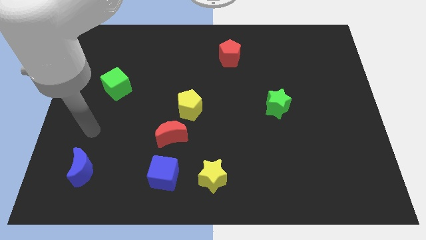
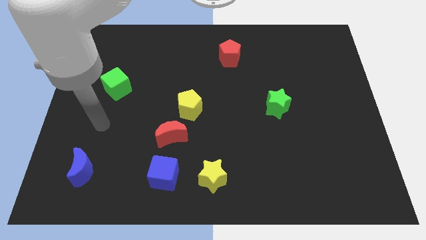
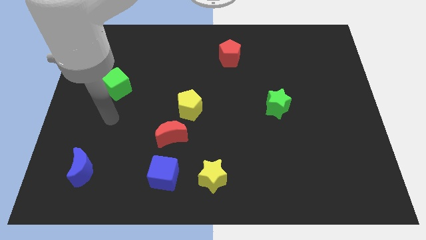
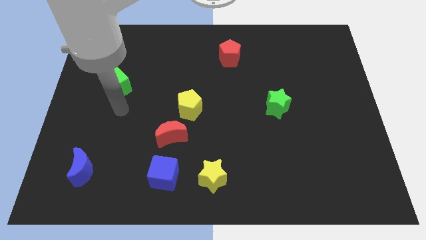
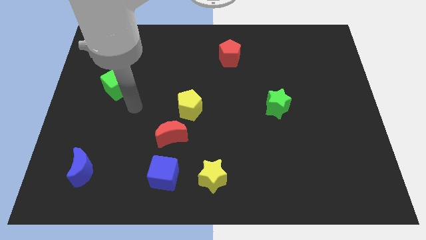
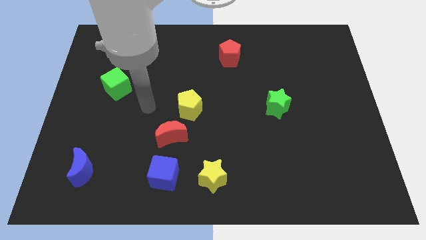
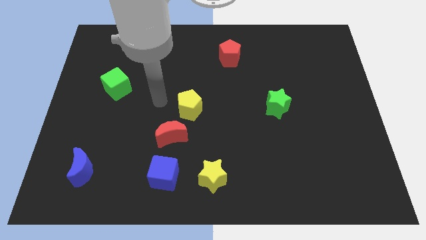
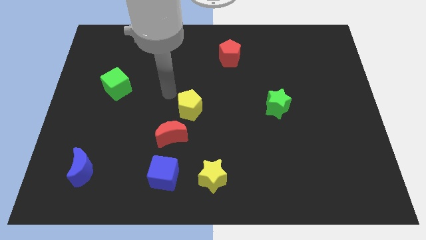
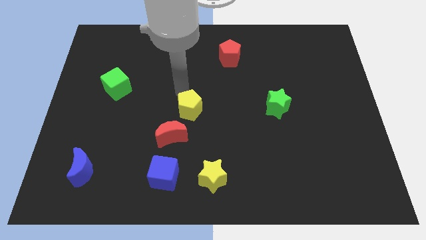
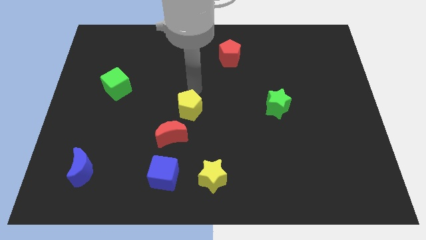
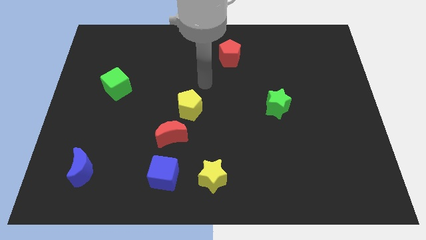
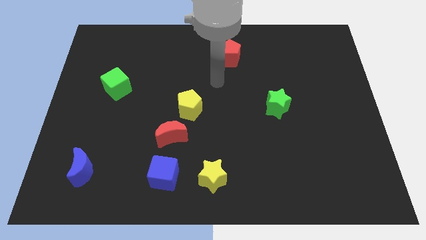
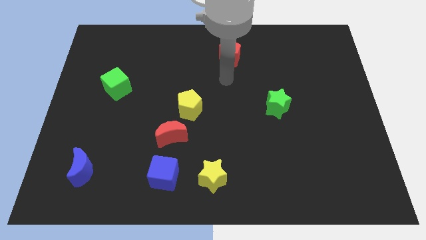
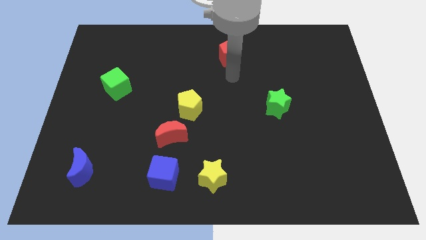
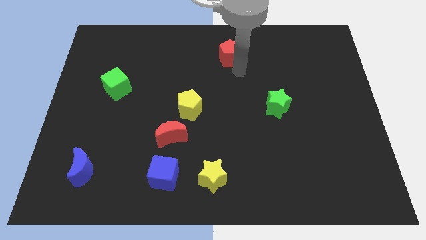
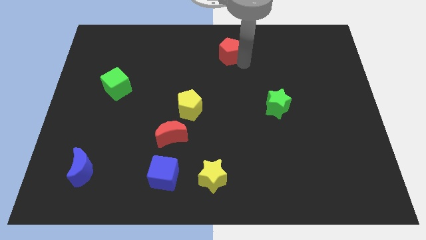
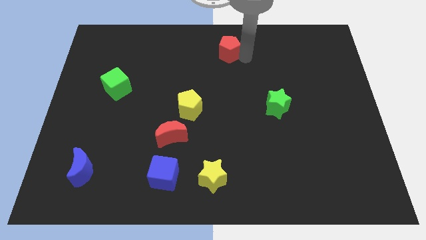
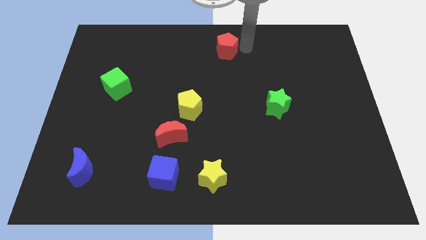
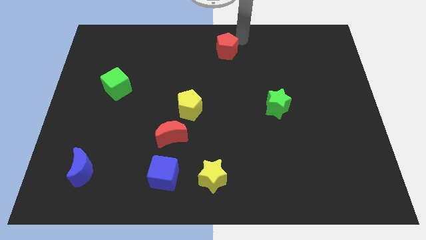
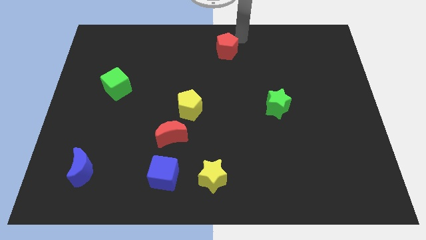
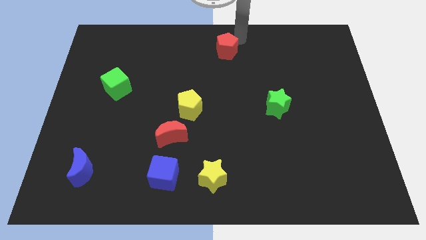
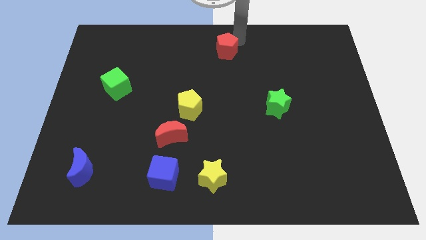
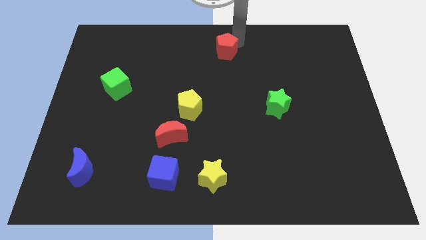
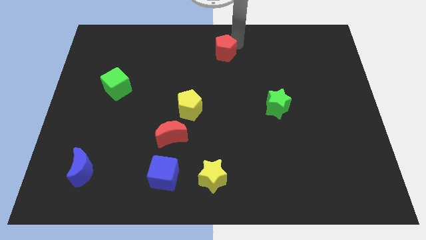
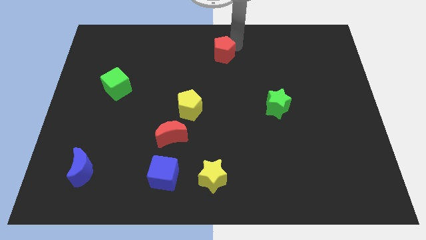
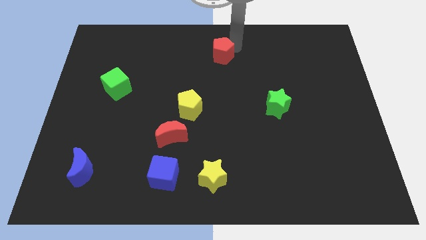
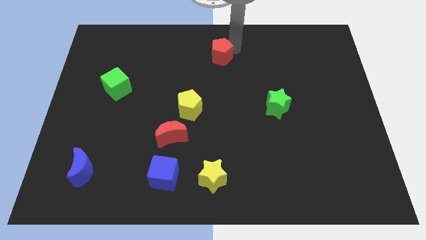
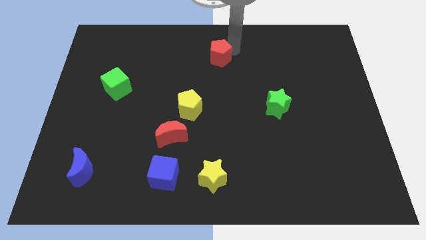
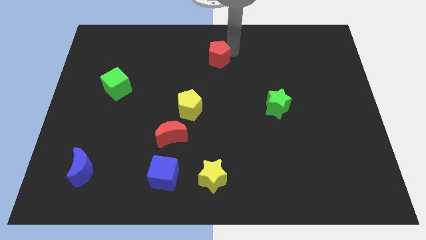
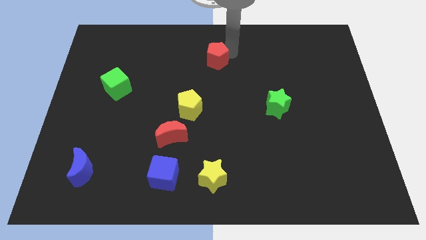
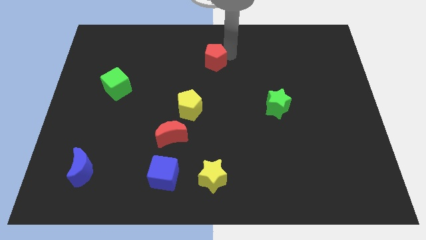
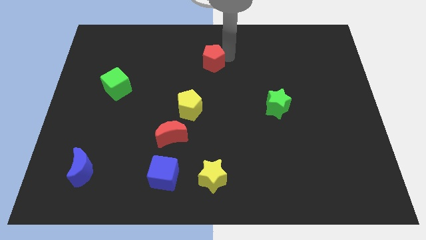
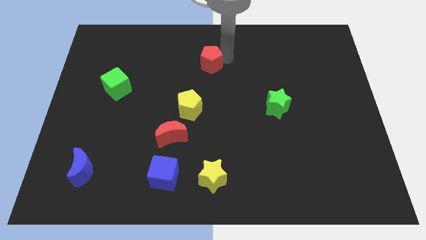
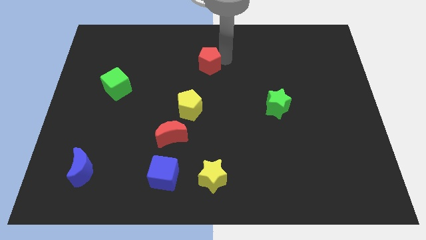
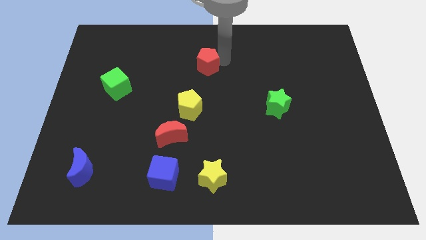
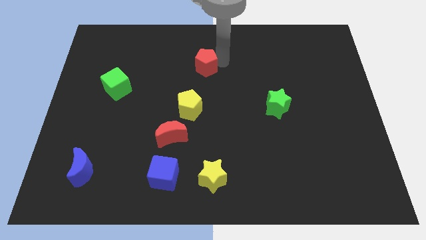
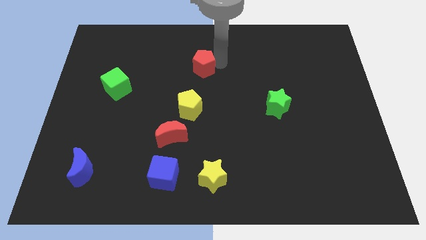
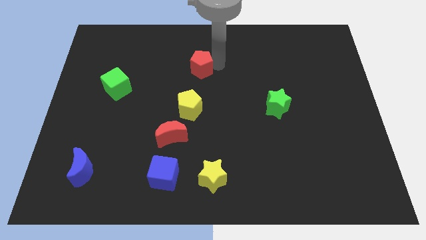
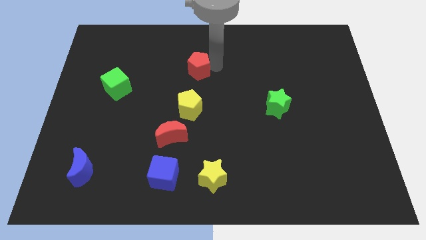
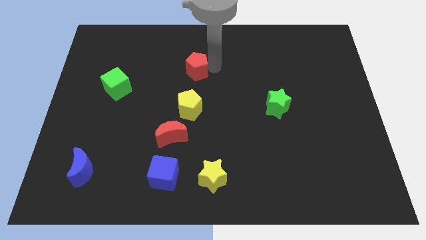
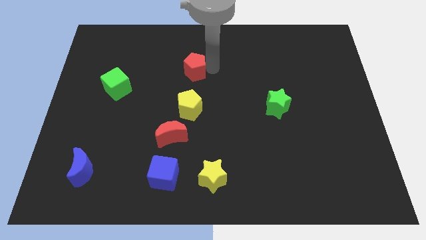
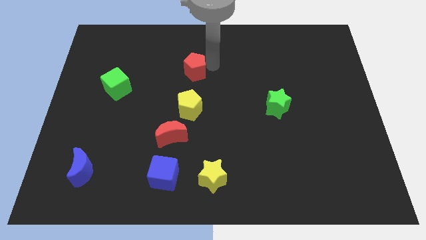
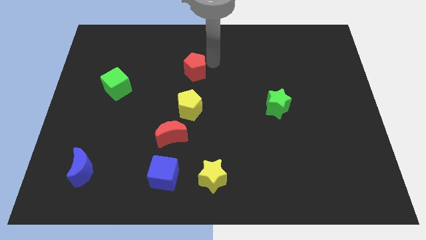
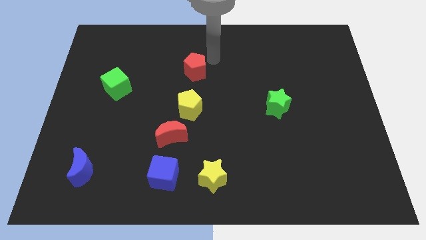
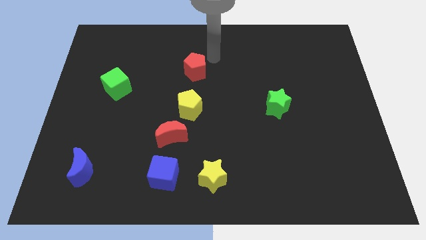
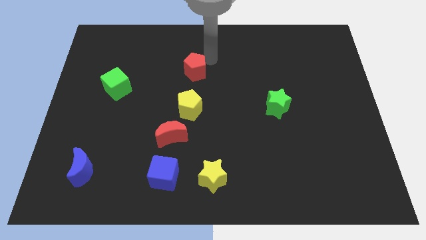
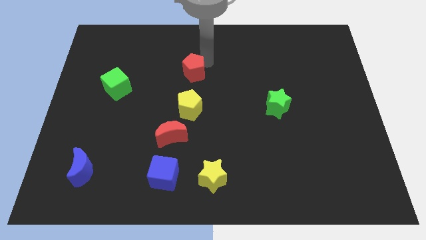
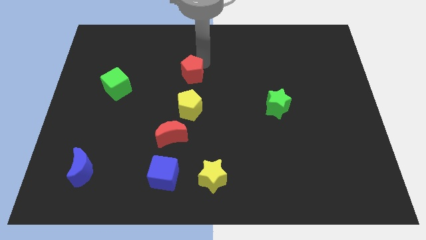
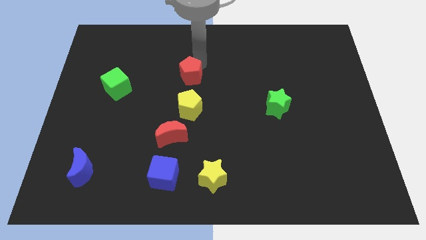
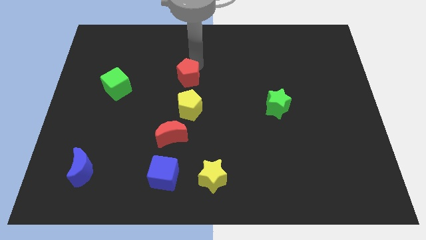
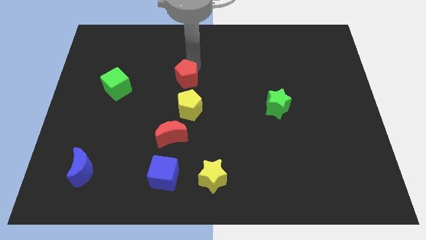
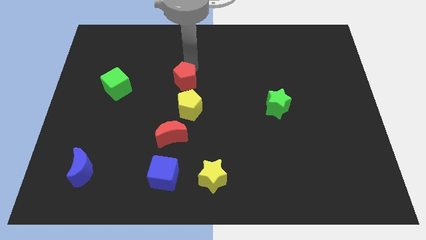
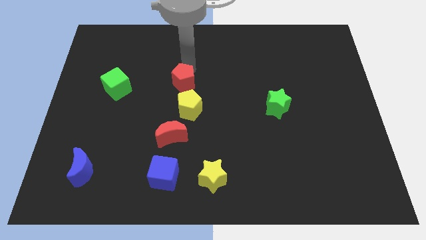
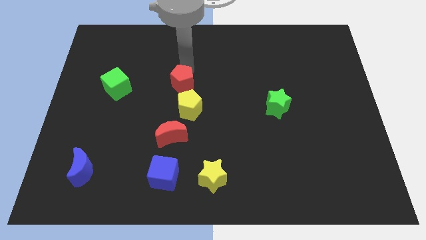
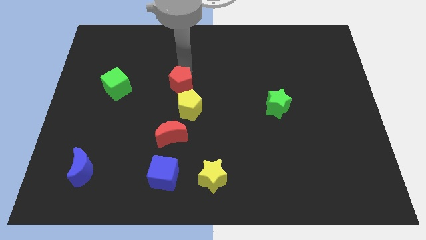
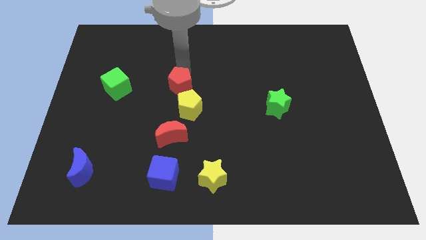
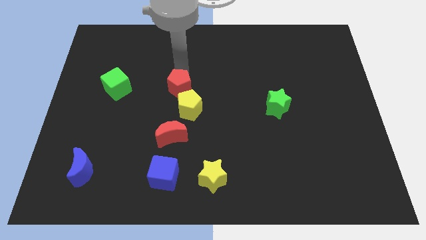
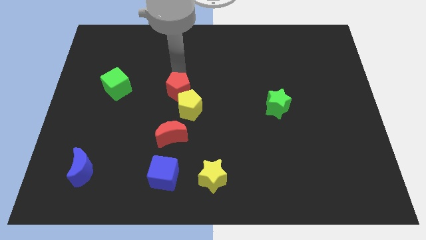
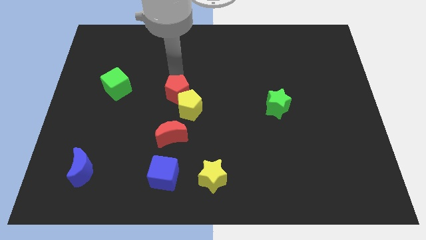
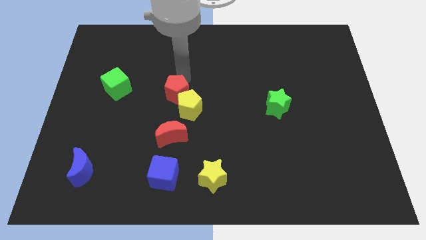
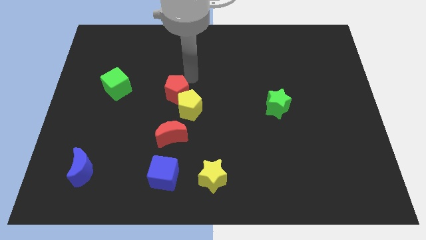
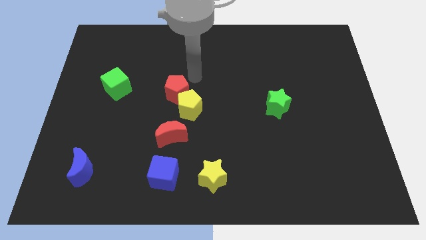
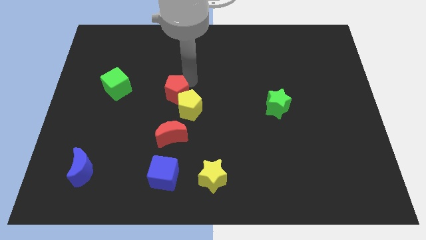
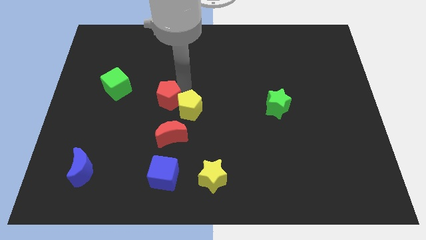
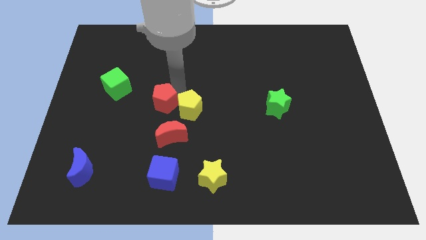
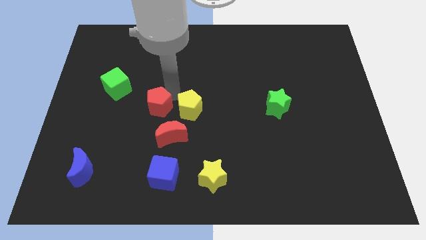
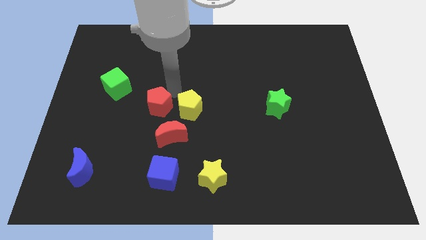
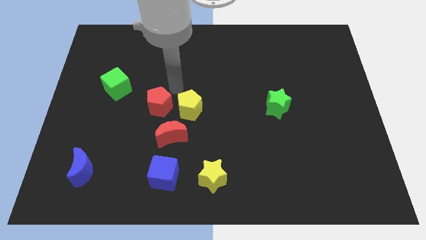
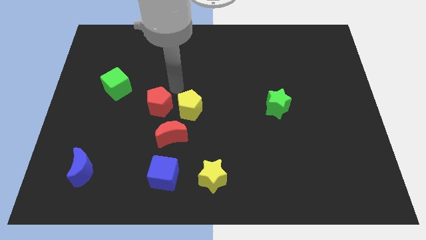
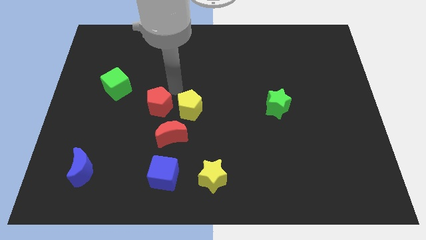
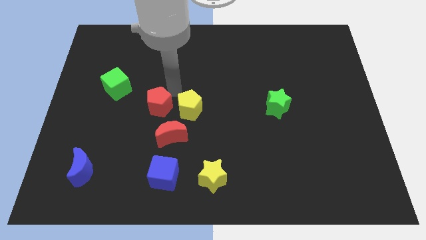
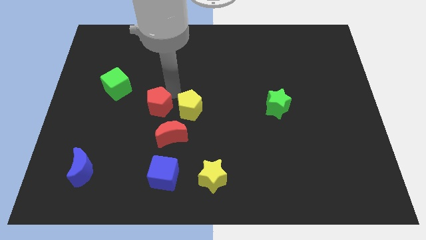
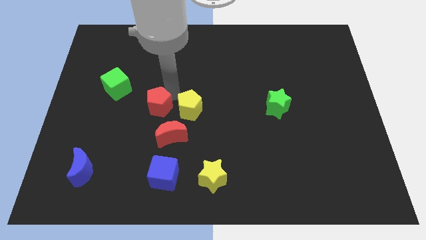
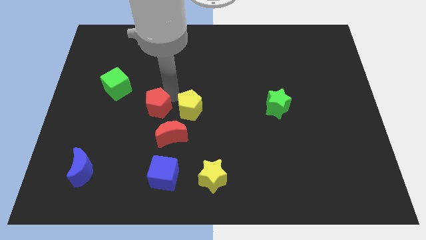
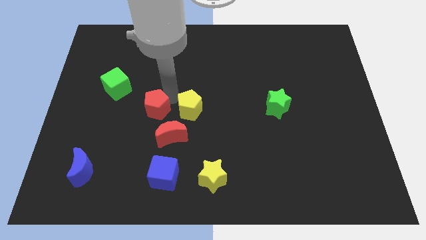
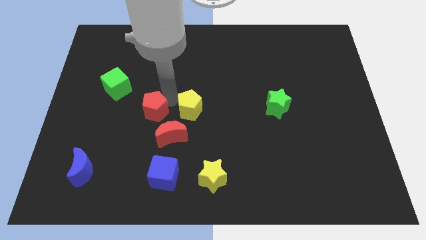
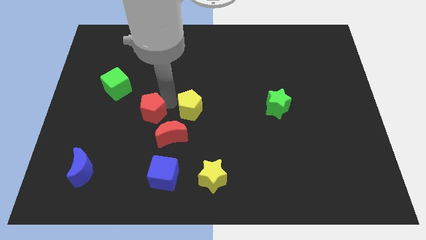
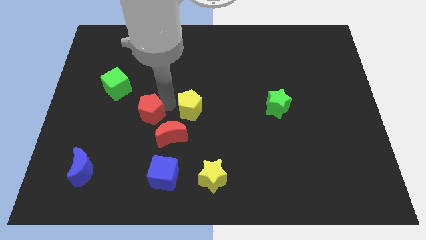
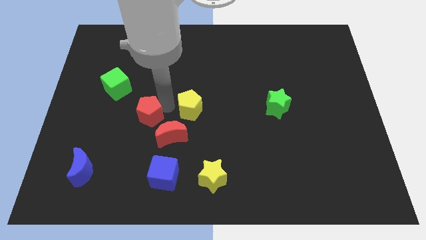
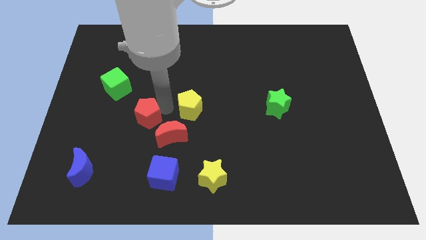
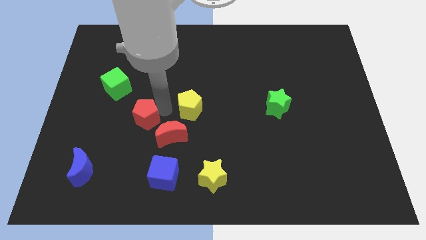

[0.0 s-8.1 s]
put the red pentagon to the left of the red moon
